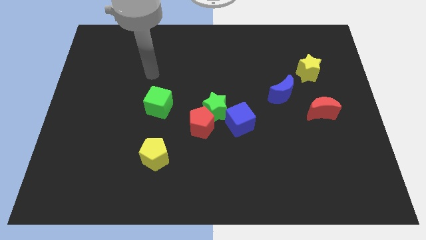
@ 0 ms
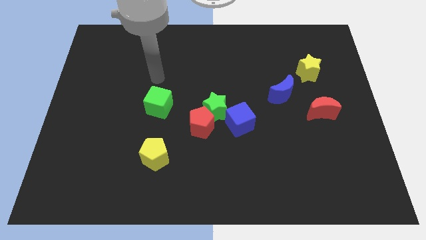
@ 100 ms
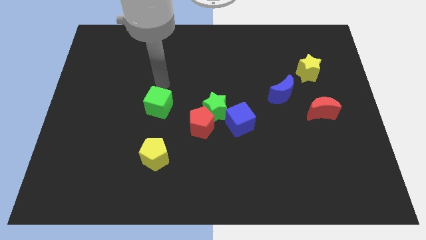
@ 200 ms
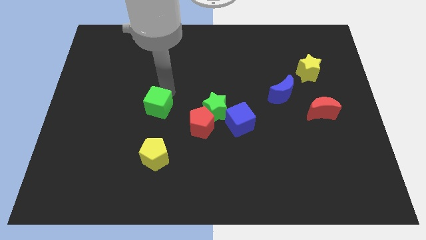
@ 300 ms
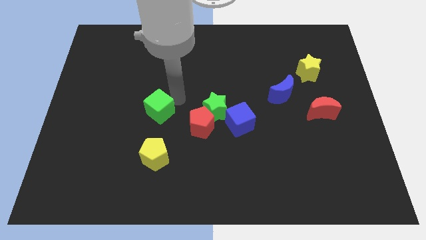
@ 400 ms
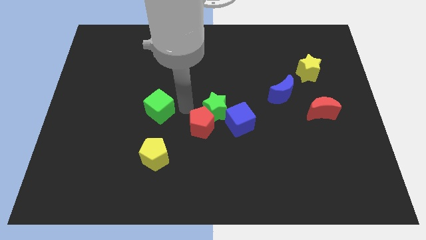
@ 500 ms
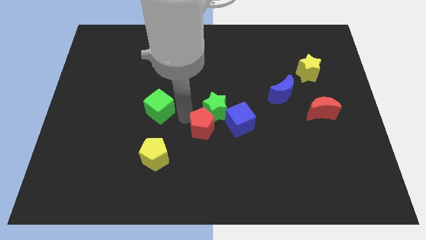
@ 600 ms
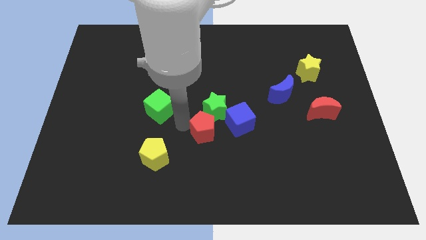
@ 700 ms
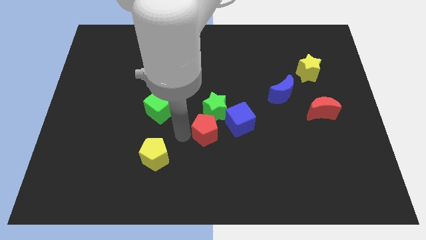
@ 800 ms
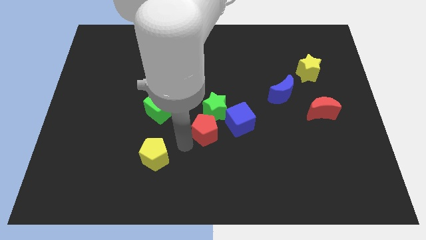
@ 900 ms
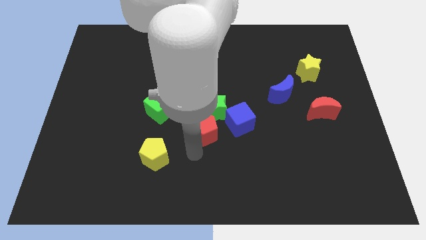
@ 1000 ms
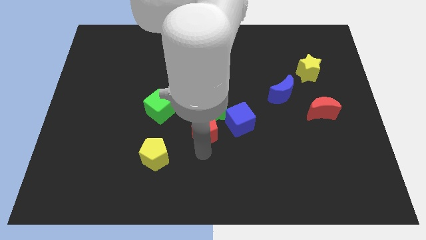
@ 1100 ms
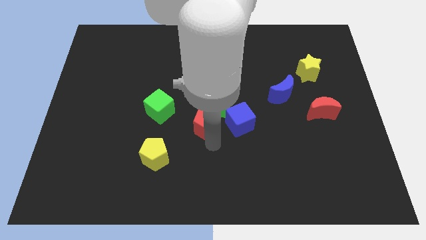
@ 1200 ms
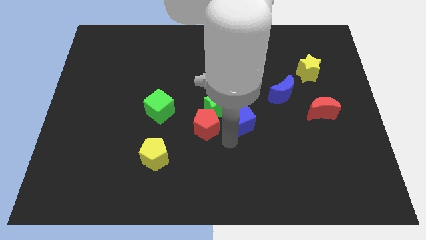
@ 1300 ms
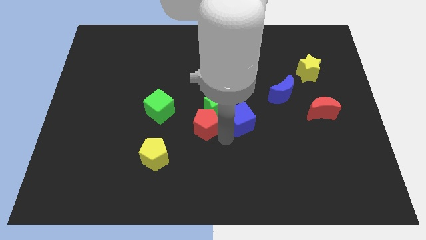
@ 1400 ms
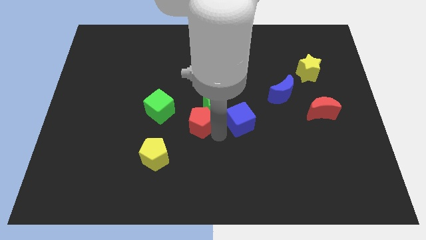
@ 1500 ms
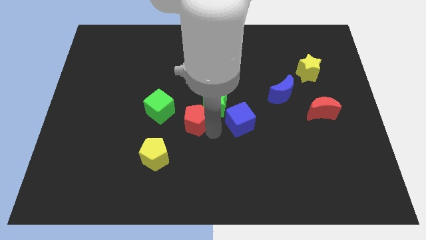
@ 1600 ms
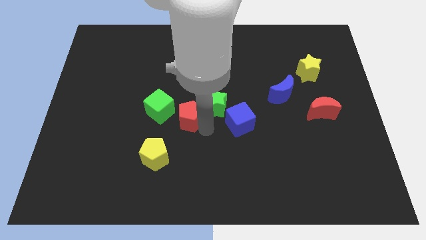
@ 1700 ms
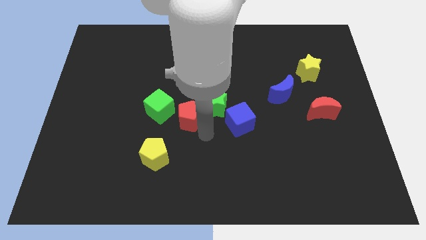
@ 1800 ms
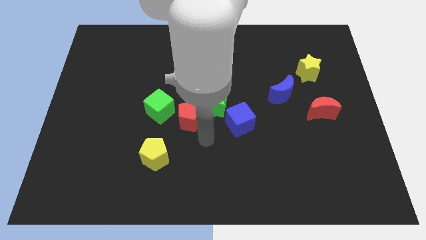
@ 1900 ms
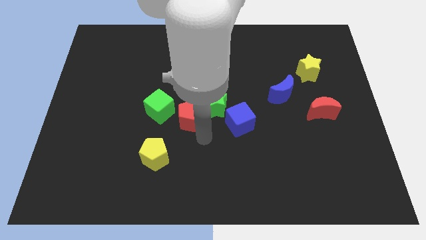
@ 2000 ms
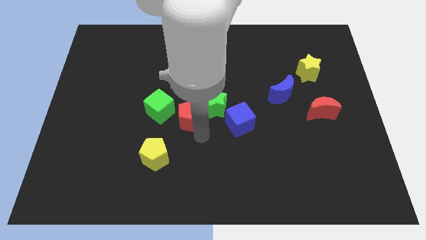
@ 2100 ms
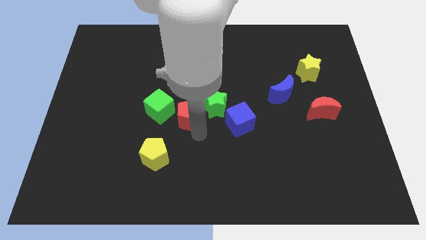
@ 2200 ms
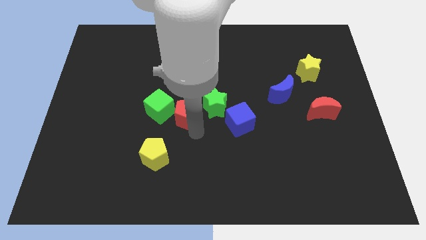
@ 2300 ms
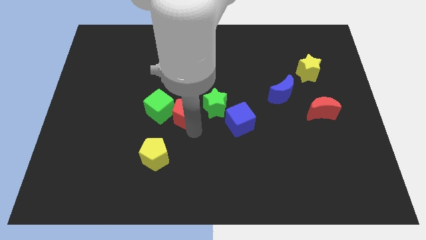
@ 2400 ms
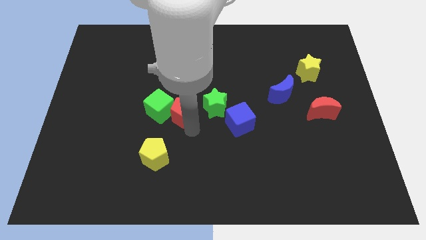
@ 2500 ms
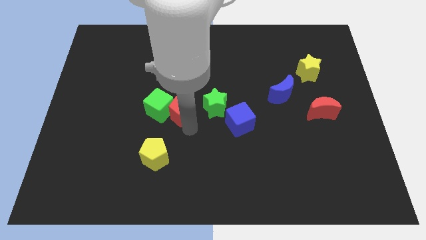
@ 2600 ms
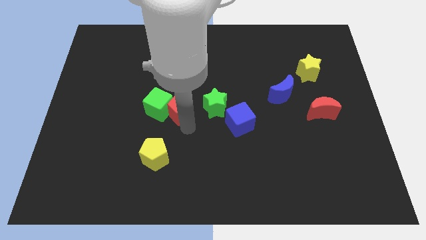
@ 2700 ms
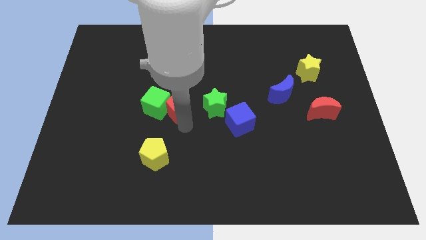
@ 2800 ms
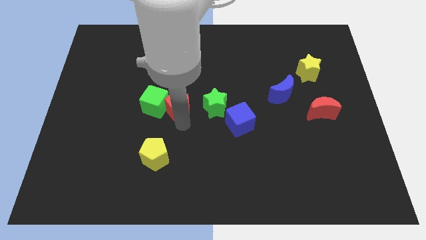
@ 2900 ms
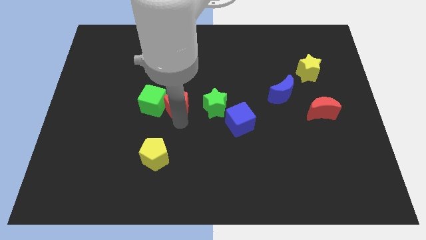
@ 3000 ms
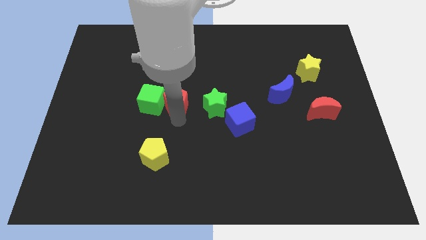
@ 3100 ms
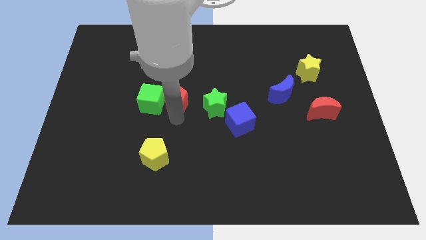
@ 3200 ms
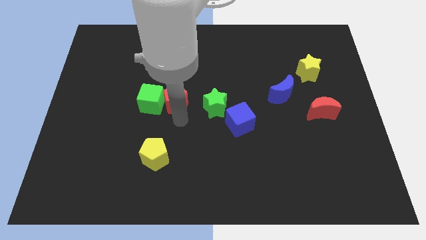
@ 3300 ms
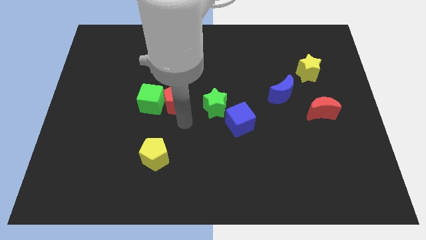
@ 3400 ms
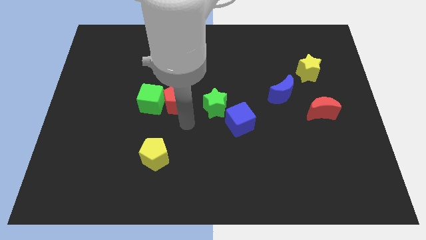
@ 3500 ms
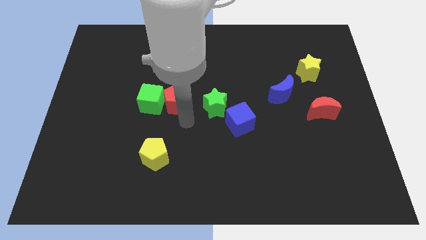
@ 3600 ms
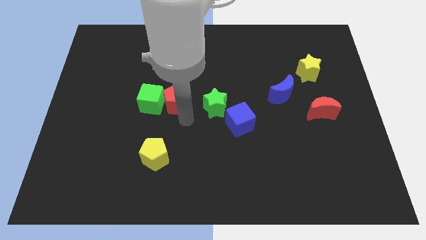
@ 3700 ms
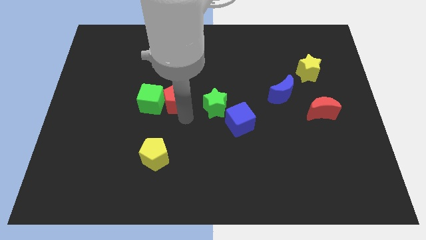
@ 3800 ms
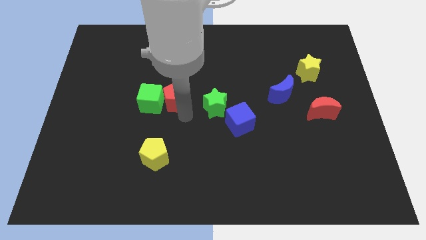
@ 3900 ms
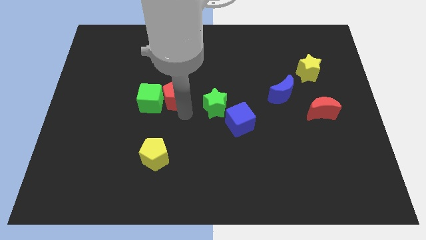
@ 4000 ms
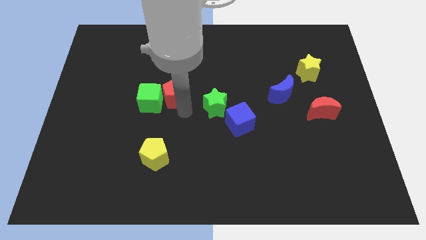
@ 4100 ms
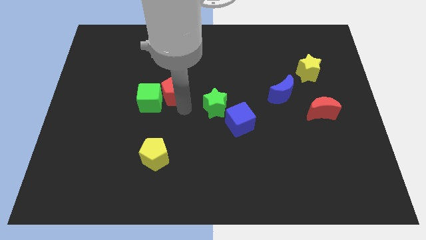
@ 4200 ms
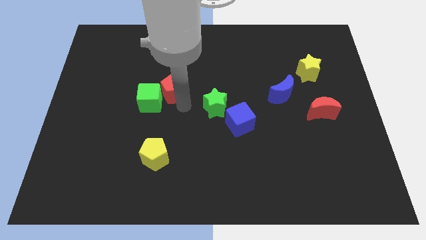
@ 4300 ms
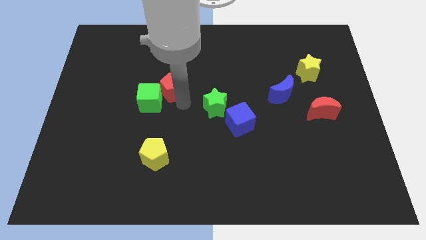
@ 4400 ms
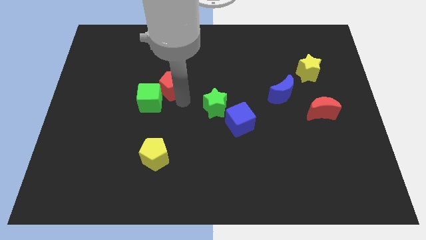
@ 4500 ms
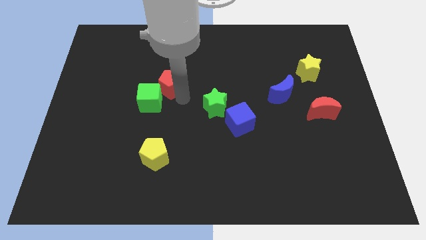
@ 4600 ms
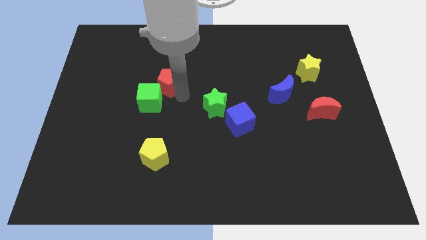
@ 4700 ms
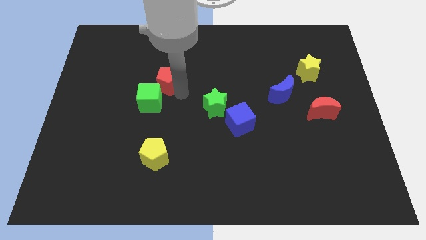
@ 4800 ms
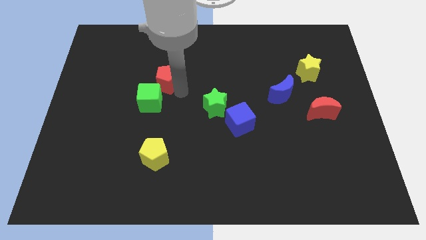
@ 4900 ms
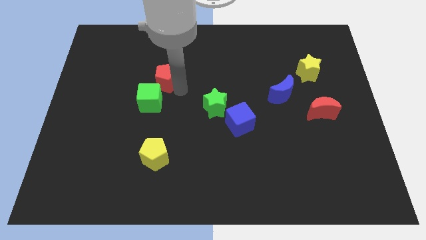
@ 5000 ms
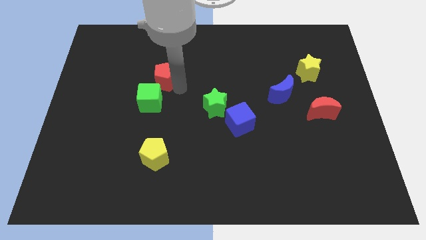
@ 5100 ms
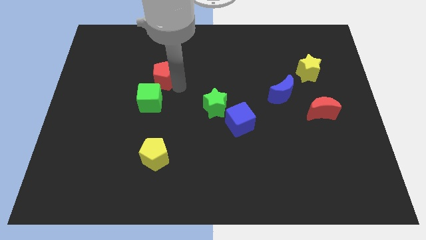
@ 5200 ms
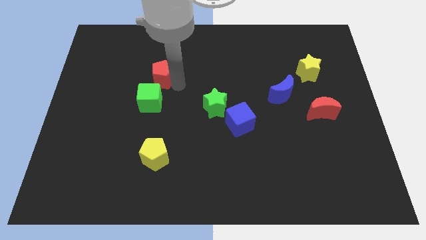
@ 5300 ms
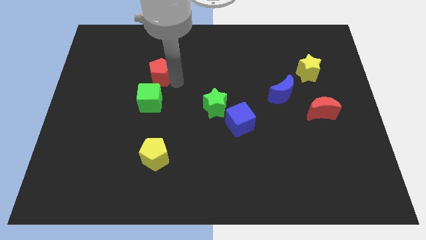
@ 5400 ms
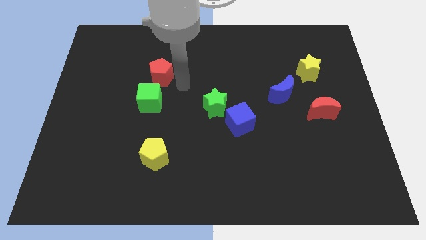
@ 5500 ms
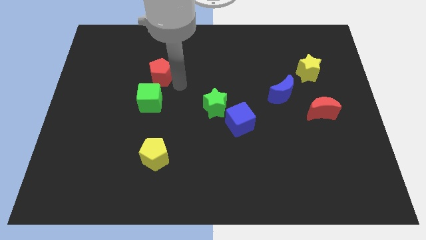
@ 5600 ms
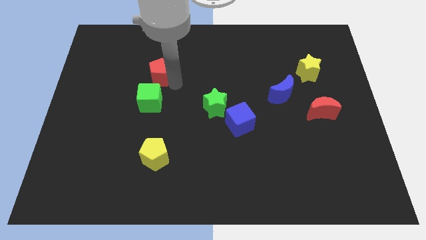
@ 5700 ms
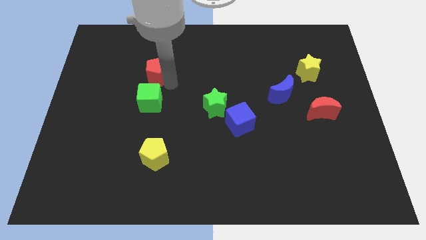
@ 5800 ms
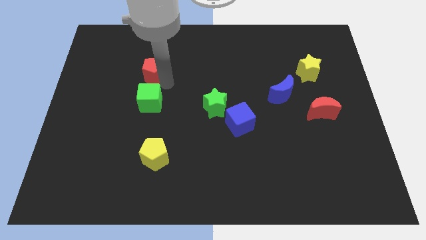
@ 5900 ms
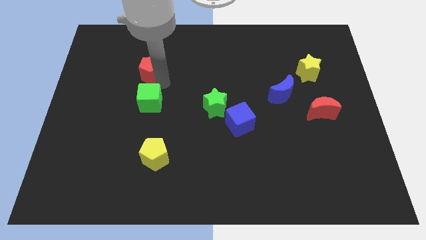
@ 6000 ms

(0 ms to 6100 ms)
push the red pentagon up and then to the left

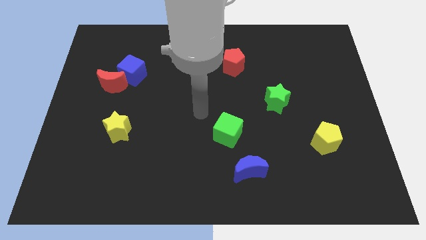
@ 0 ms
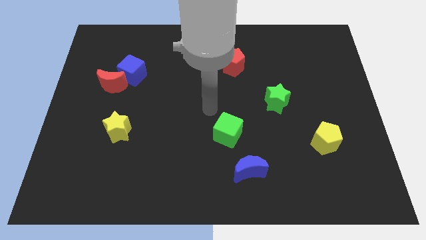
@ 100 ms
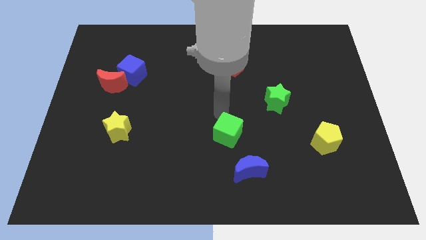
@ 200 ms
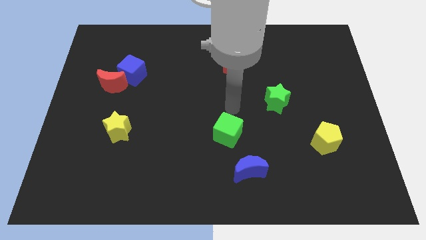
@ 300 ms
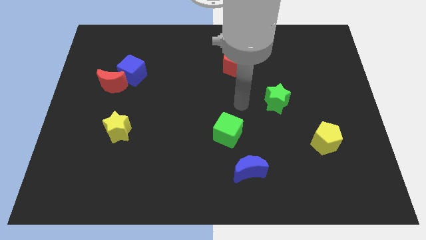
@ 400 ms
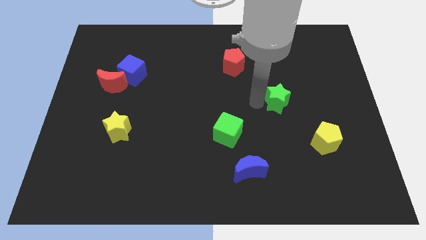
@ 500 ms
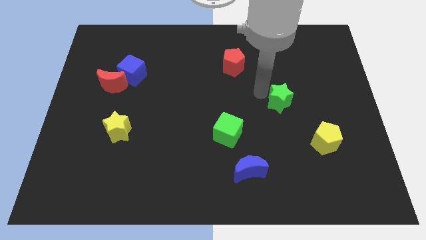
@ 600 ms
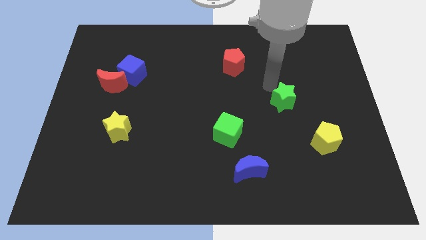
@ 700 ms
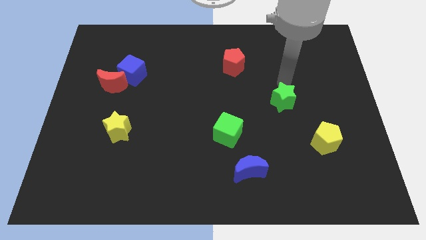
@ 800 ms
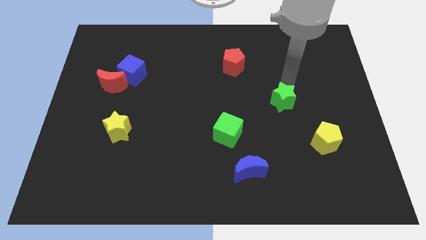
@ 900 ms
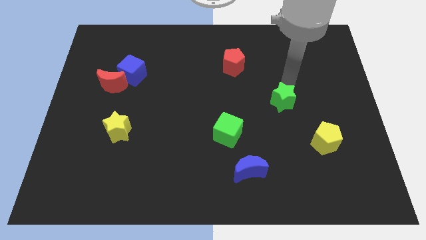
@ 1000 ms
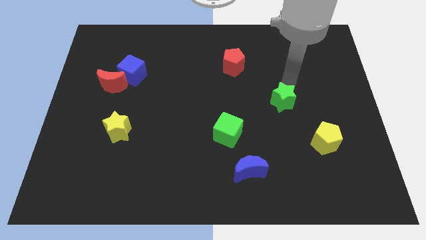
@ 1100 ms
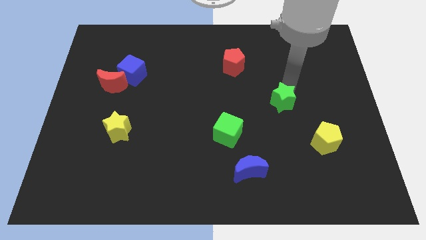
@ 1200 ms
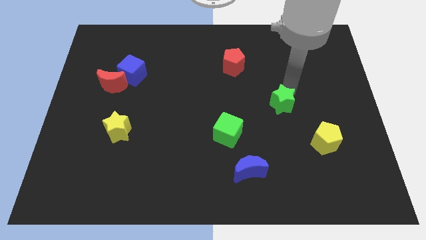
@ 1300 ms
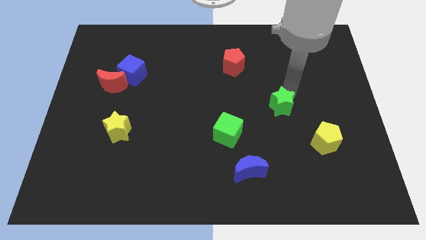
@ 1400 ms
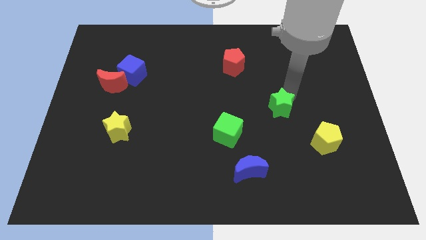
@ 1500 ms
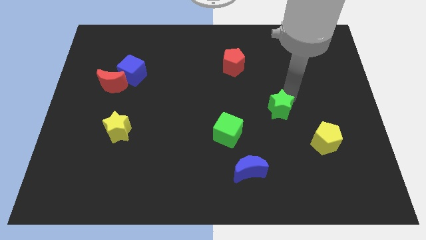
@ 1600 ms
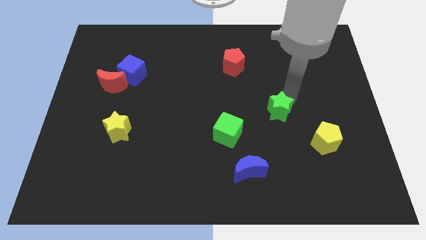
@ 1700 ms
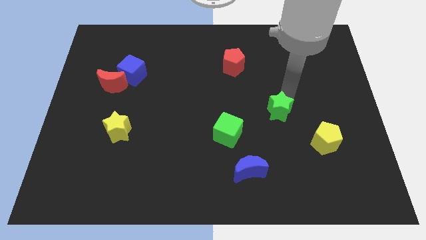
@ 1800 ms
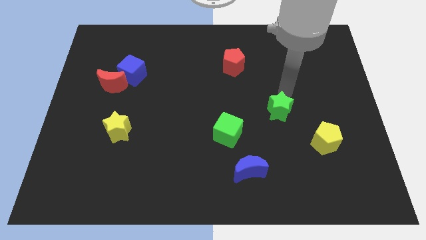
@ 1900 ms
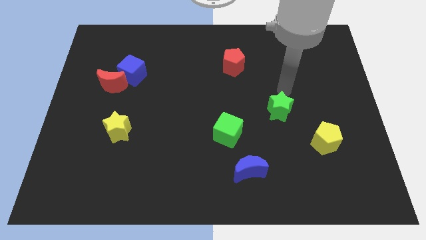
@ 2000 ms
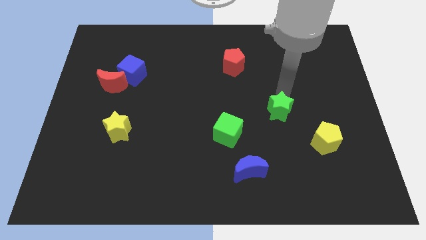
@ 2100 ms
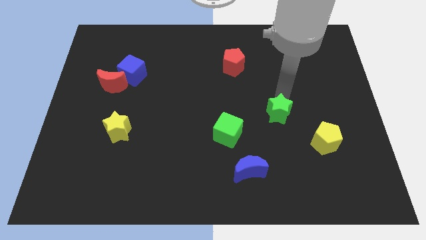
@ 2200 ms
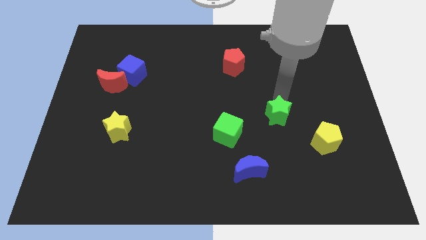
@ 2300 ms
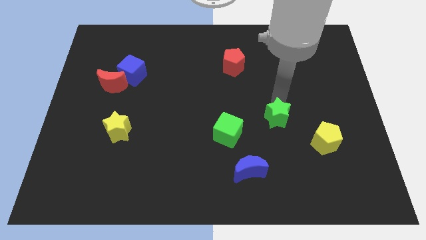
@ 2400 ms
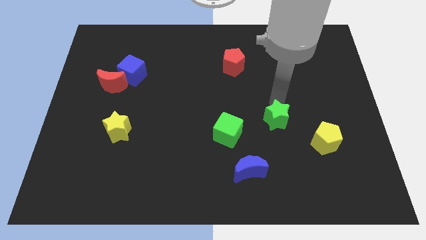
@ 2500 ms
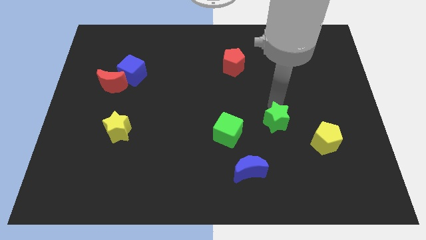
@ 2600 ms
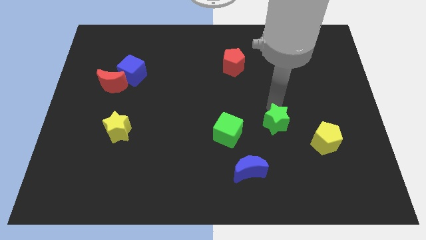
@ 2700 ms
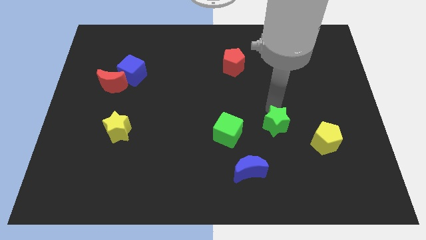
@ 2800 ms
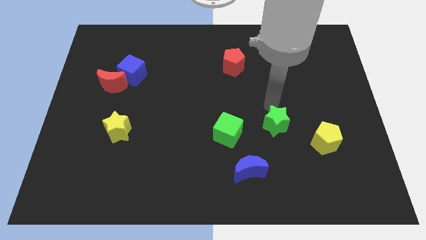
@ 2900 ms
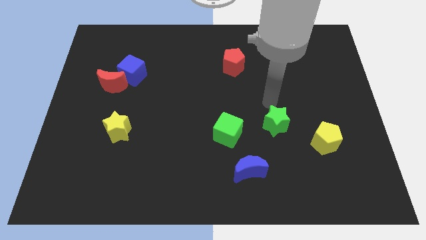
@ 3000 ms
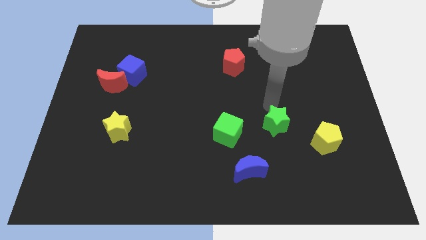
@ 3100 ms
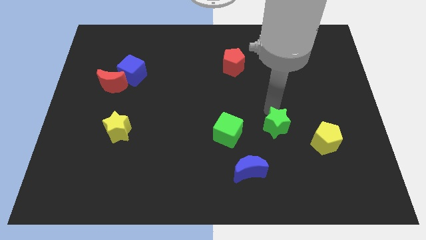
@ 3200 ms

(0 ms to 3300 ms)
move the green star slightly downwards
